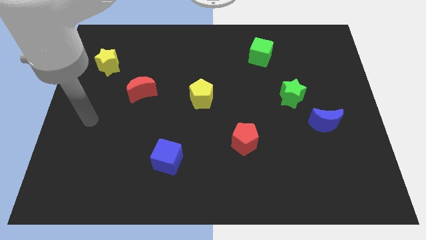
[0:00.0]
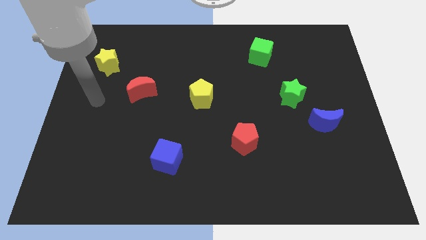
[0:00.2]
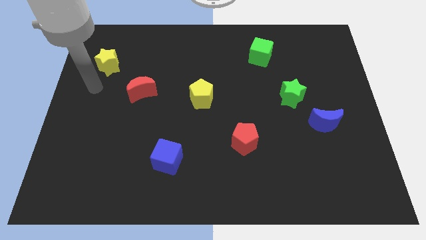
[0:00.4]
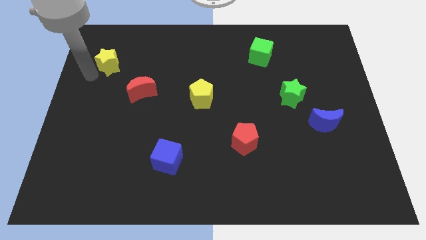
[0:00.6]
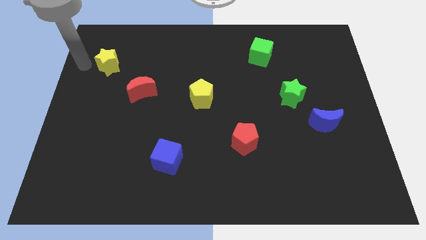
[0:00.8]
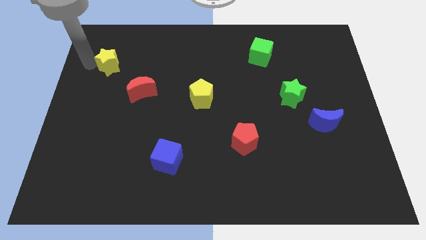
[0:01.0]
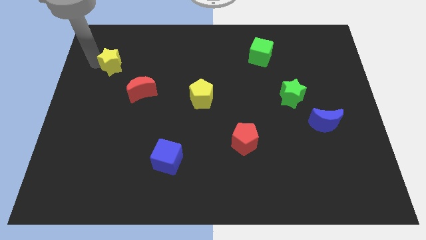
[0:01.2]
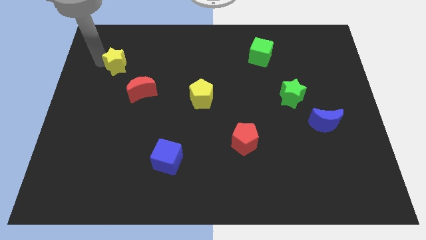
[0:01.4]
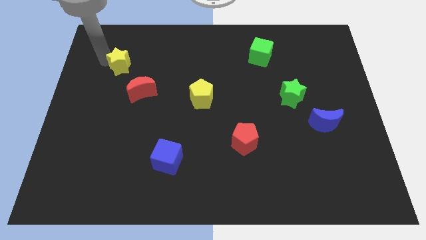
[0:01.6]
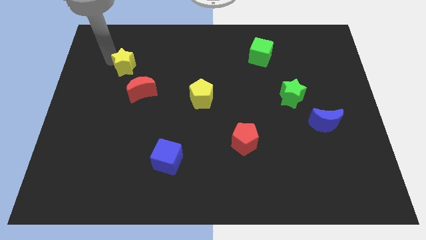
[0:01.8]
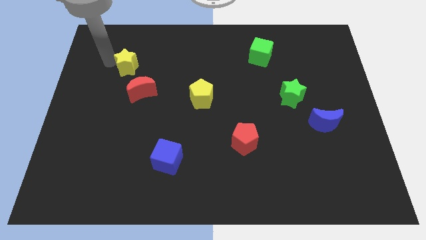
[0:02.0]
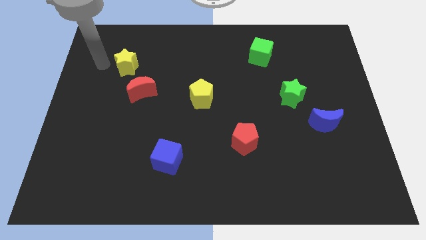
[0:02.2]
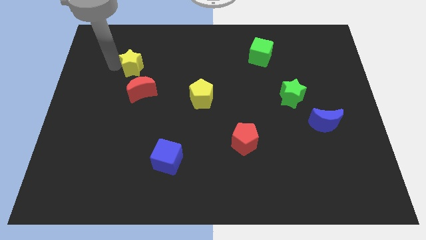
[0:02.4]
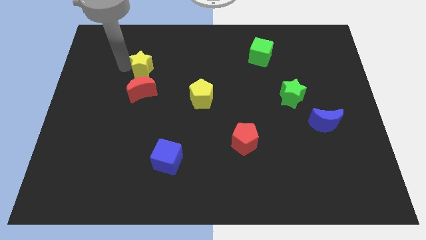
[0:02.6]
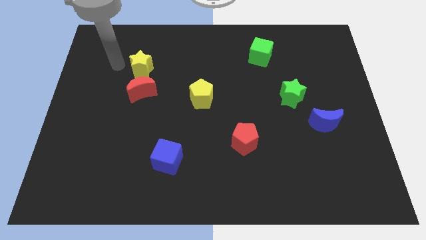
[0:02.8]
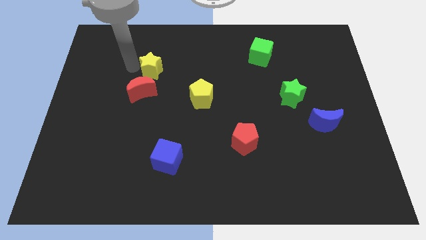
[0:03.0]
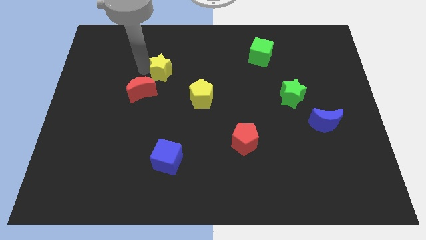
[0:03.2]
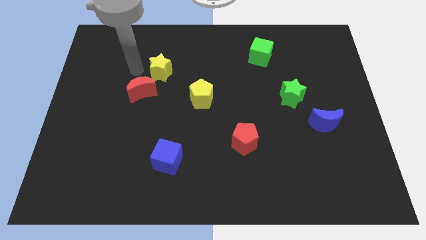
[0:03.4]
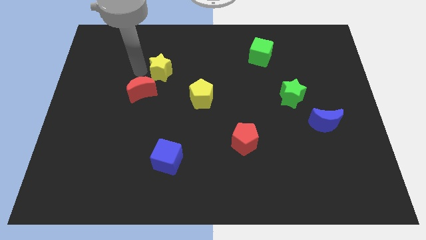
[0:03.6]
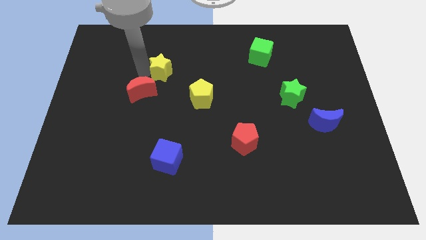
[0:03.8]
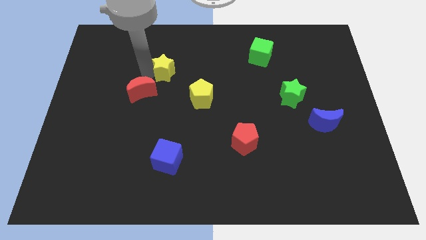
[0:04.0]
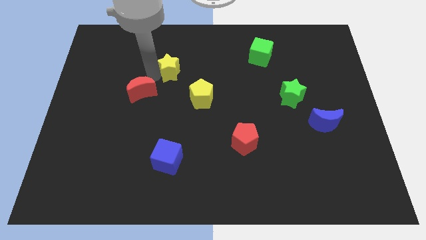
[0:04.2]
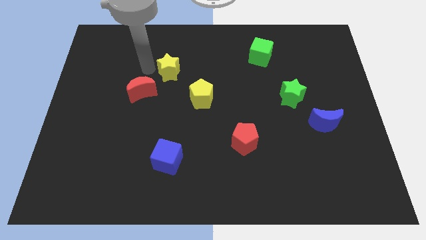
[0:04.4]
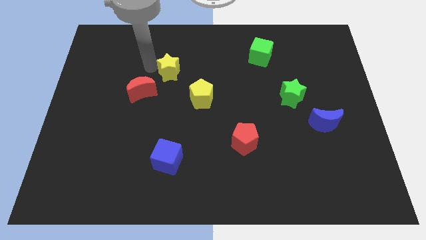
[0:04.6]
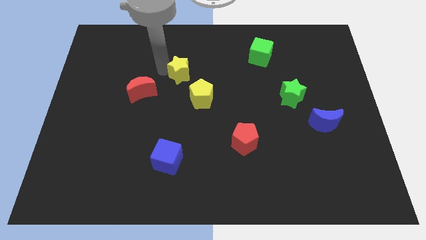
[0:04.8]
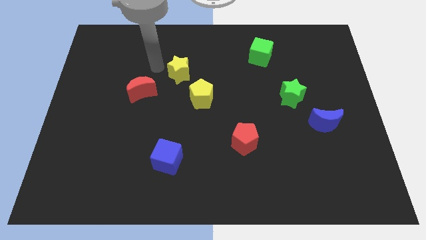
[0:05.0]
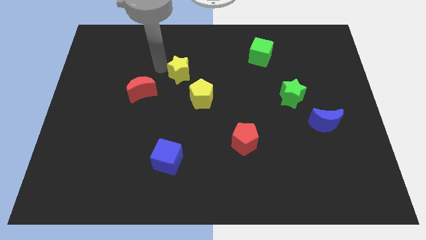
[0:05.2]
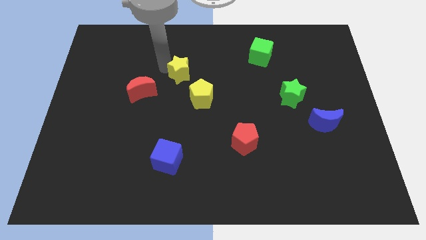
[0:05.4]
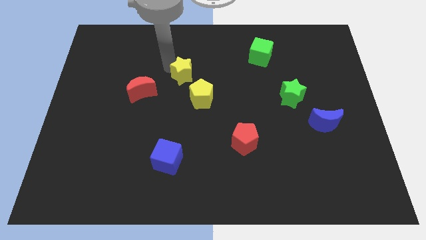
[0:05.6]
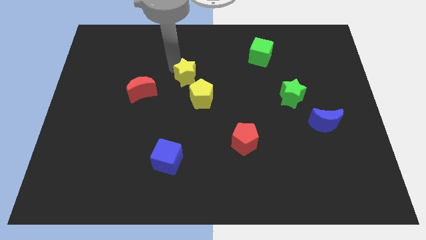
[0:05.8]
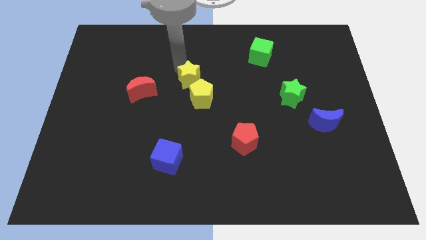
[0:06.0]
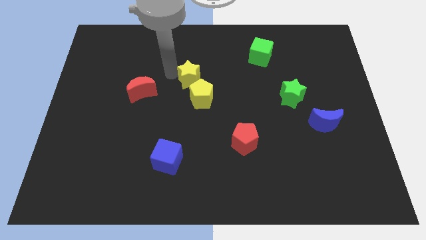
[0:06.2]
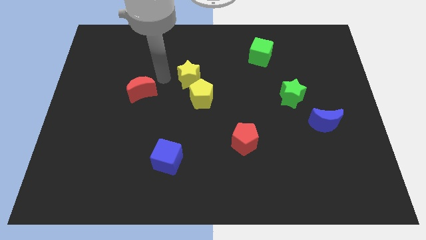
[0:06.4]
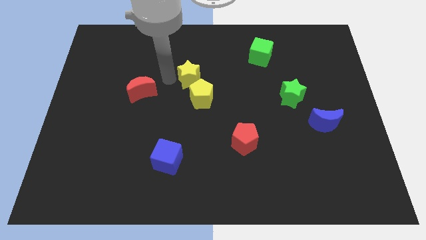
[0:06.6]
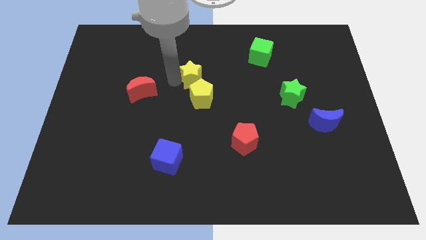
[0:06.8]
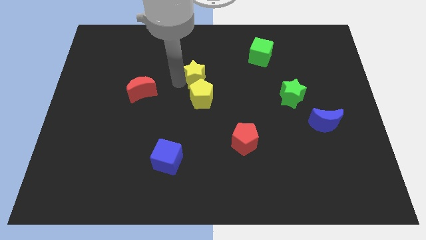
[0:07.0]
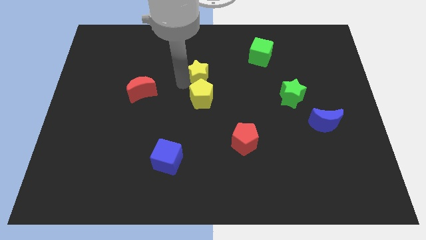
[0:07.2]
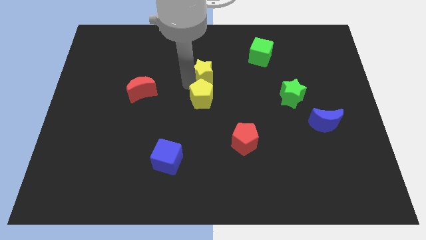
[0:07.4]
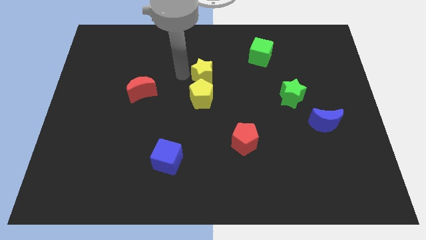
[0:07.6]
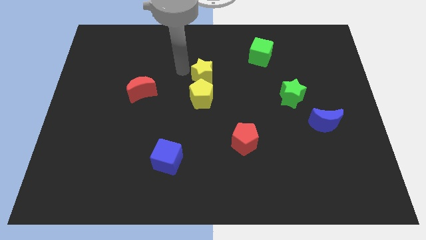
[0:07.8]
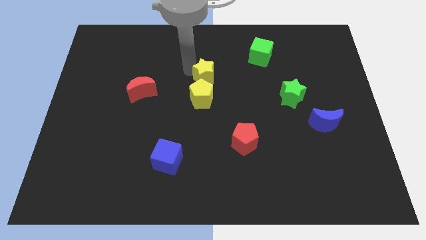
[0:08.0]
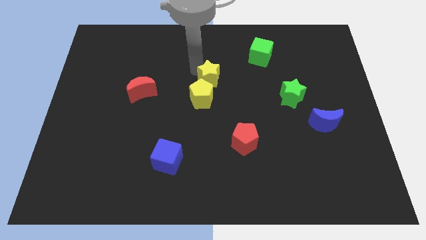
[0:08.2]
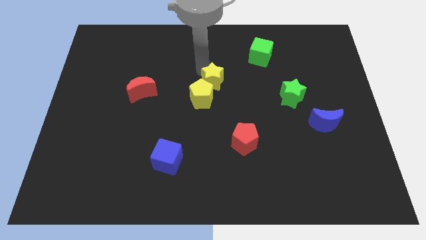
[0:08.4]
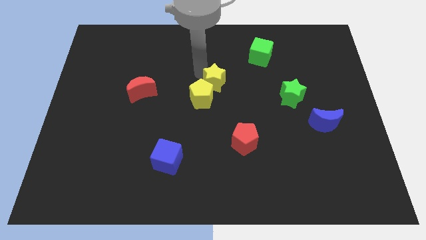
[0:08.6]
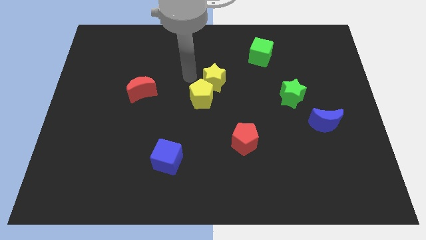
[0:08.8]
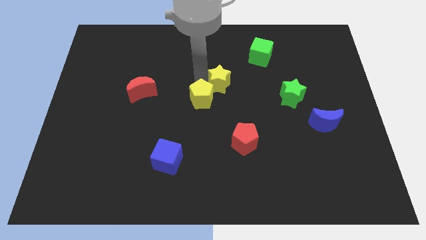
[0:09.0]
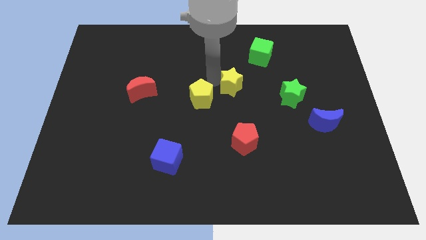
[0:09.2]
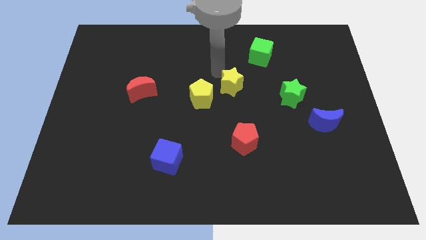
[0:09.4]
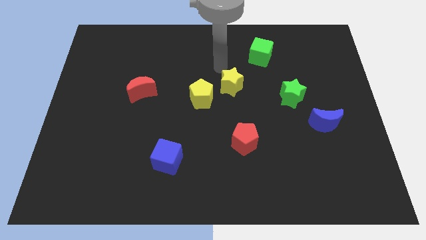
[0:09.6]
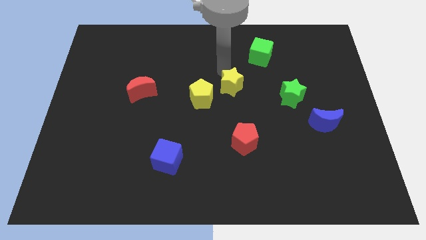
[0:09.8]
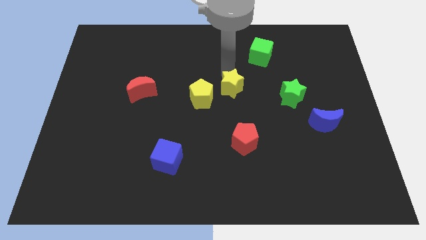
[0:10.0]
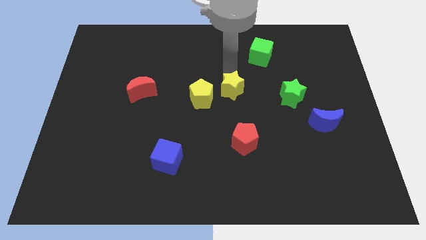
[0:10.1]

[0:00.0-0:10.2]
move the yellow star to the top side of the red pentagon

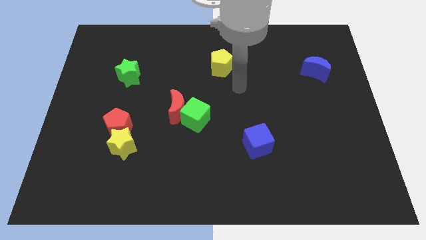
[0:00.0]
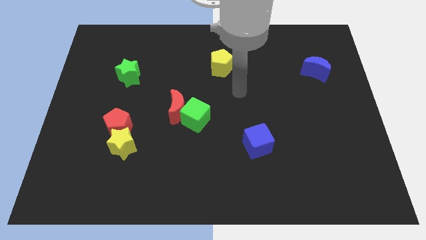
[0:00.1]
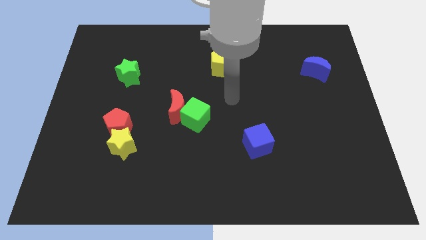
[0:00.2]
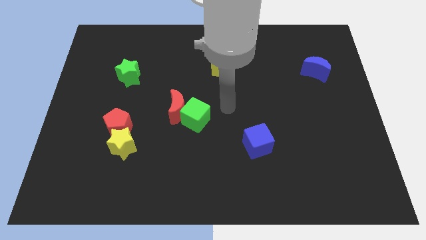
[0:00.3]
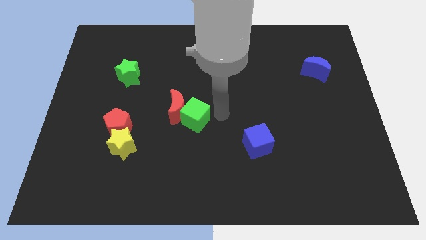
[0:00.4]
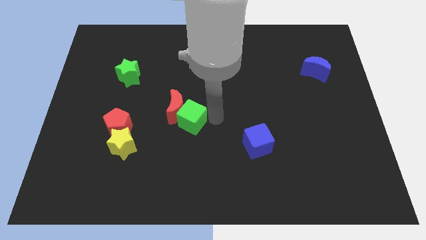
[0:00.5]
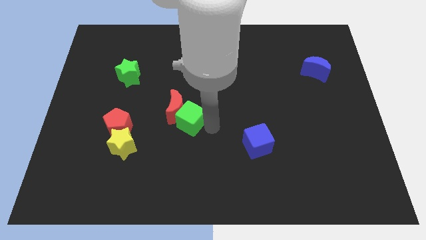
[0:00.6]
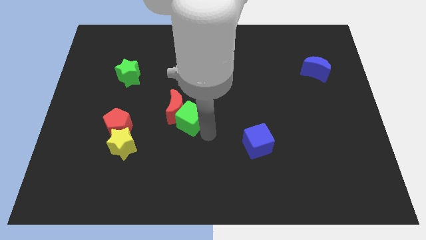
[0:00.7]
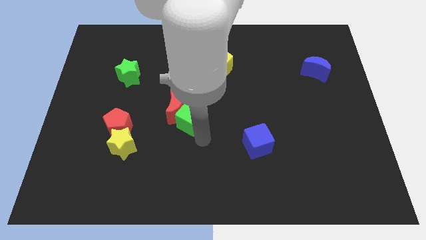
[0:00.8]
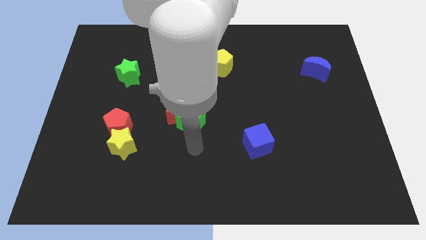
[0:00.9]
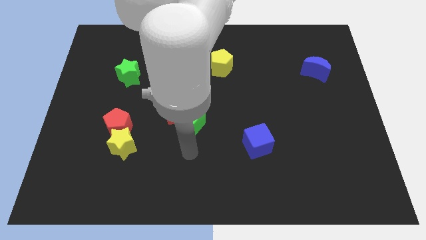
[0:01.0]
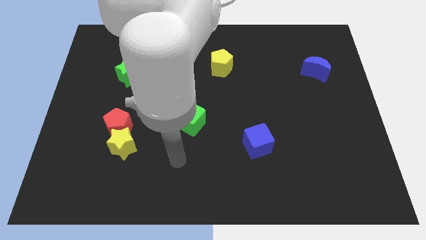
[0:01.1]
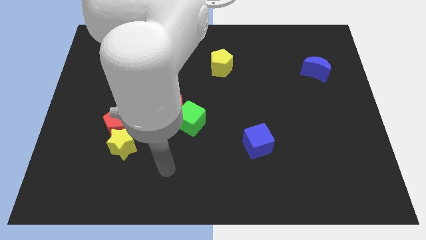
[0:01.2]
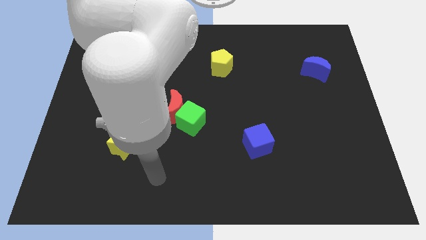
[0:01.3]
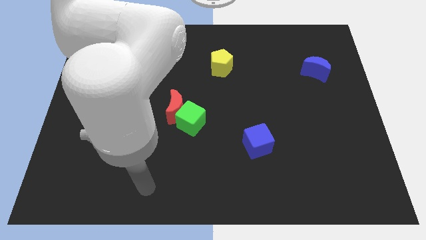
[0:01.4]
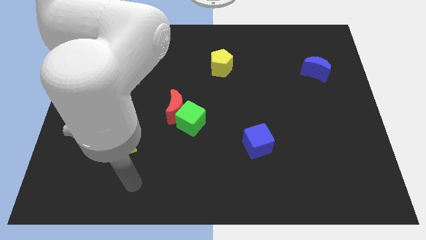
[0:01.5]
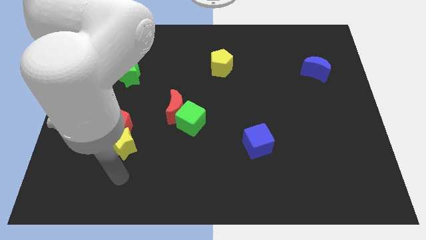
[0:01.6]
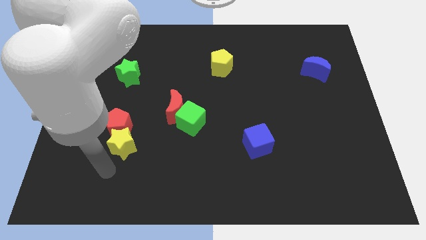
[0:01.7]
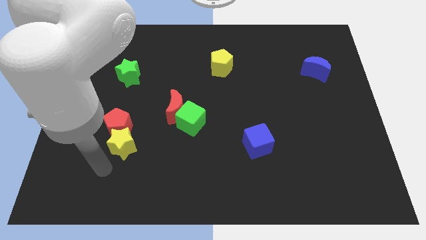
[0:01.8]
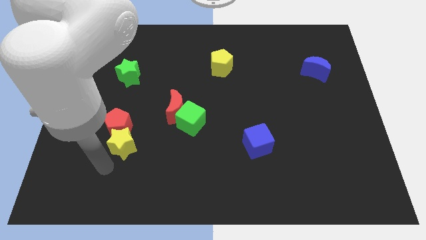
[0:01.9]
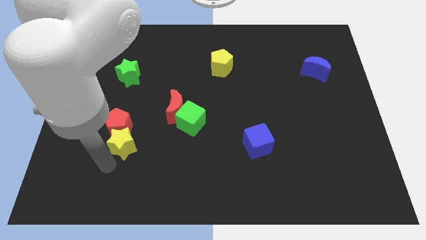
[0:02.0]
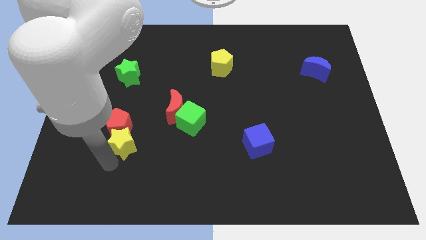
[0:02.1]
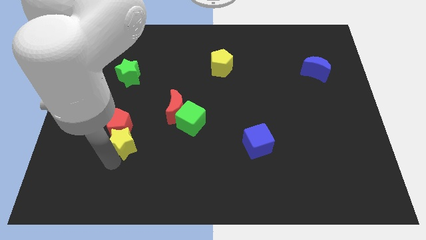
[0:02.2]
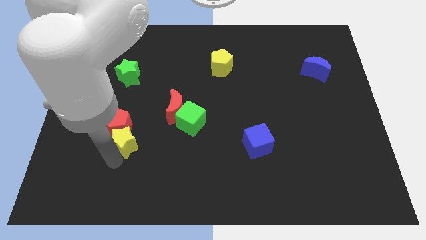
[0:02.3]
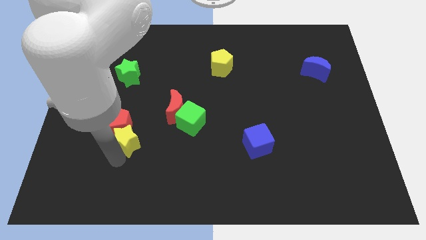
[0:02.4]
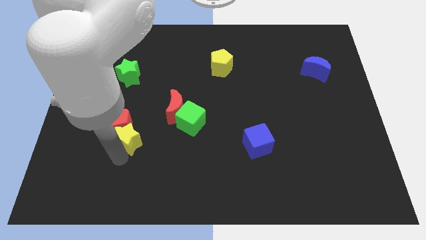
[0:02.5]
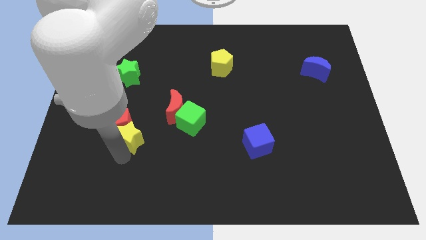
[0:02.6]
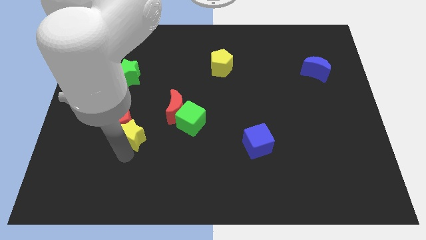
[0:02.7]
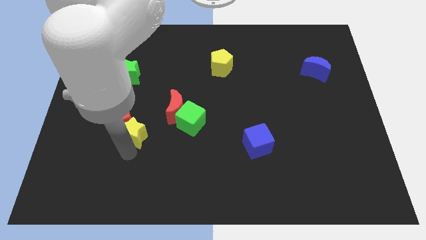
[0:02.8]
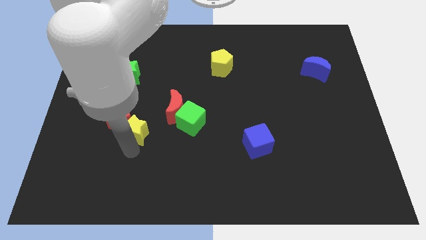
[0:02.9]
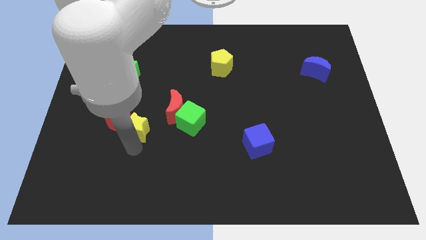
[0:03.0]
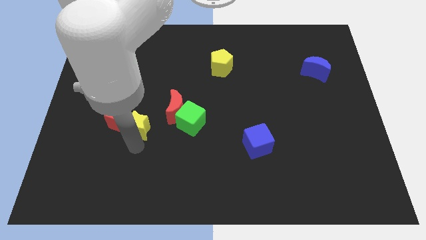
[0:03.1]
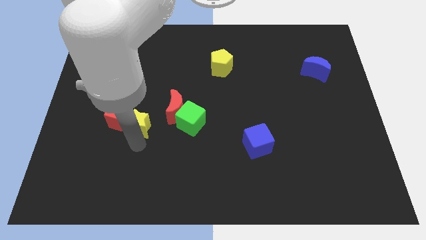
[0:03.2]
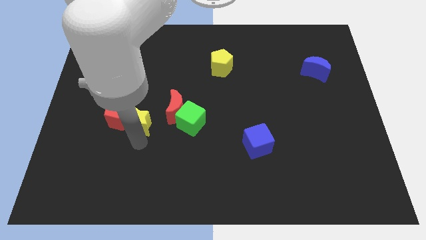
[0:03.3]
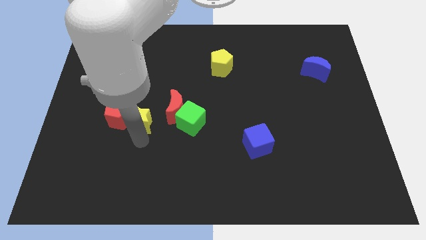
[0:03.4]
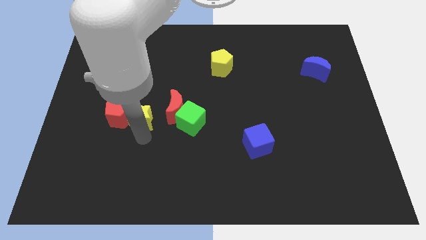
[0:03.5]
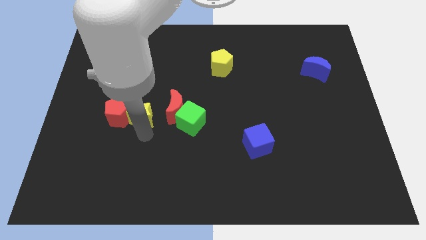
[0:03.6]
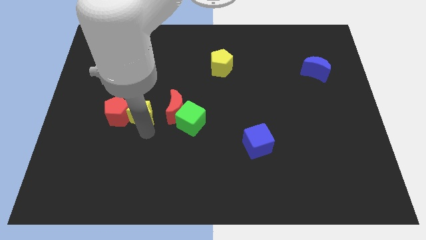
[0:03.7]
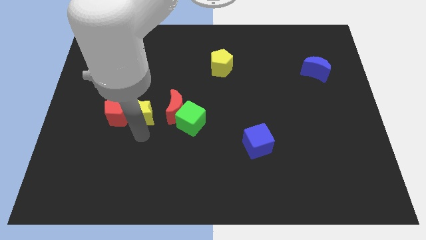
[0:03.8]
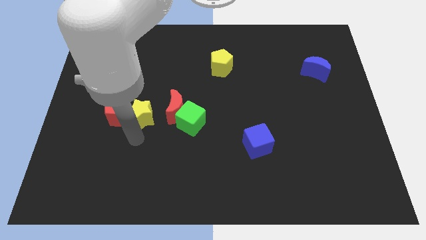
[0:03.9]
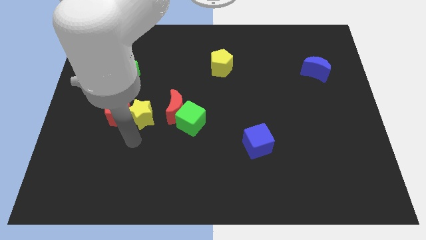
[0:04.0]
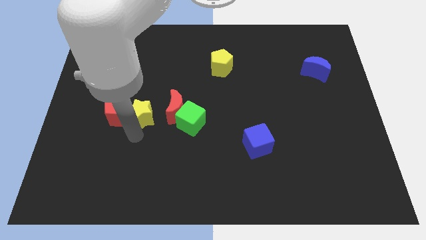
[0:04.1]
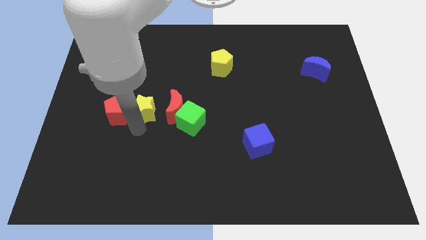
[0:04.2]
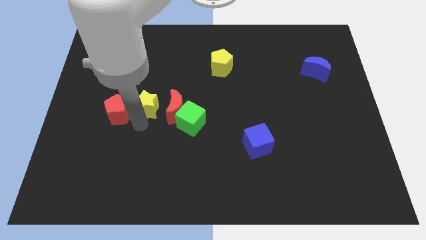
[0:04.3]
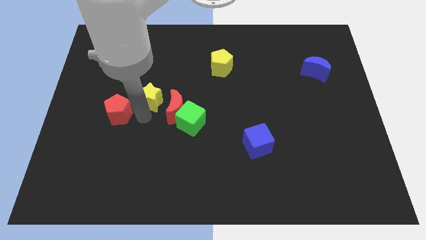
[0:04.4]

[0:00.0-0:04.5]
move the yellow star to the top left of the green cube
